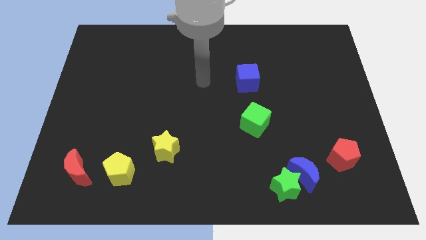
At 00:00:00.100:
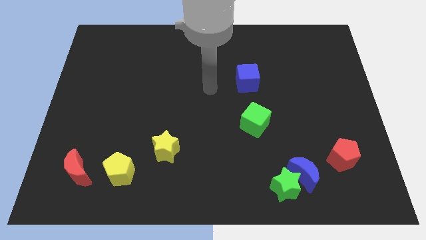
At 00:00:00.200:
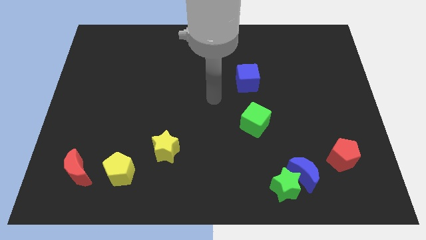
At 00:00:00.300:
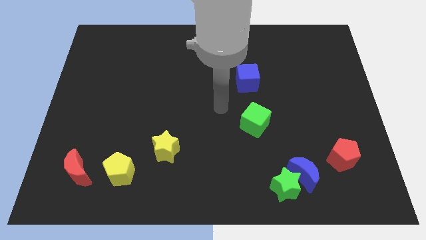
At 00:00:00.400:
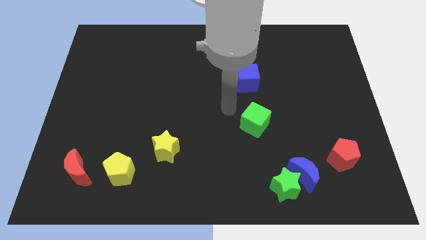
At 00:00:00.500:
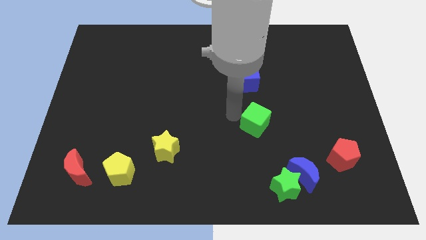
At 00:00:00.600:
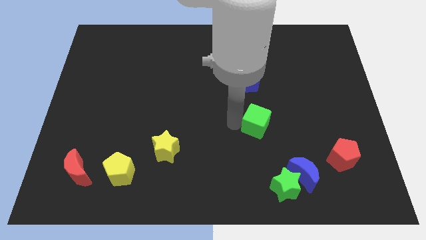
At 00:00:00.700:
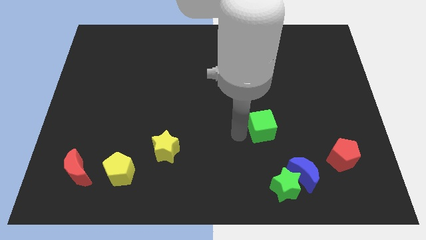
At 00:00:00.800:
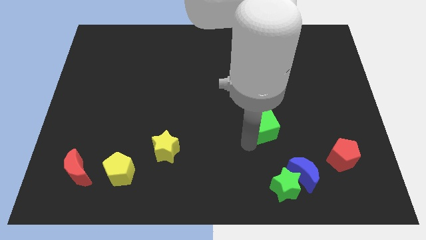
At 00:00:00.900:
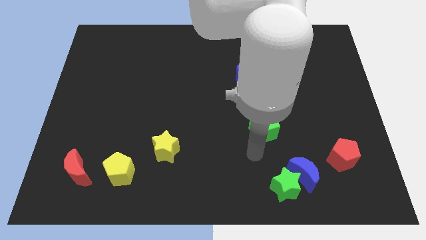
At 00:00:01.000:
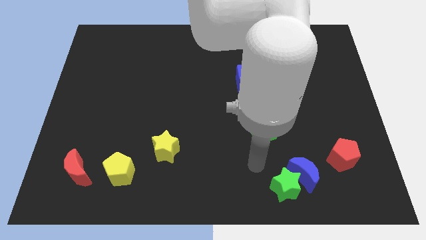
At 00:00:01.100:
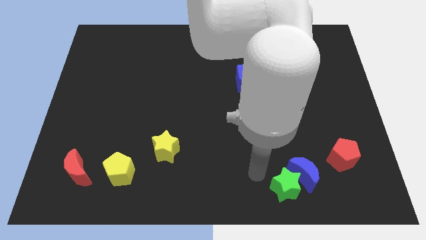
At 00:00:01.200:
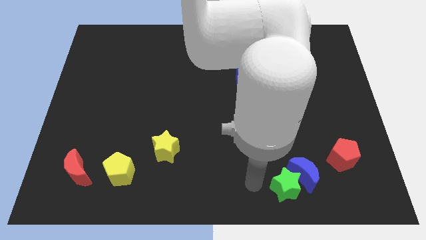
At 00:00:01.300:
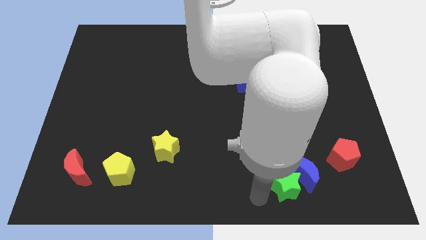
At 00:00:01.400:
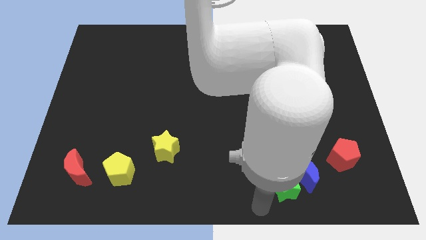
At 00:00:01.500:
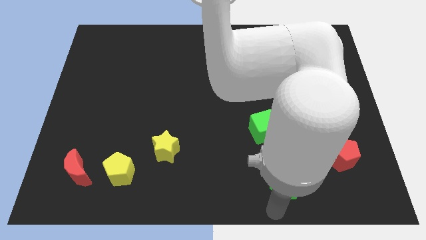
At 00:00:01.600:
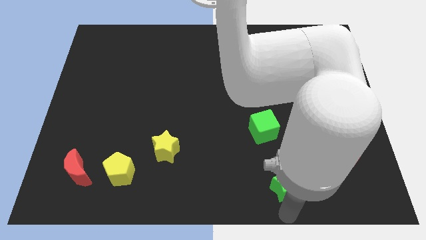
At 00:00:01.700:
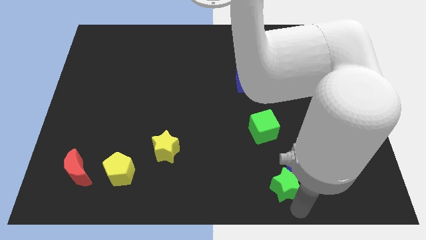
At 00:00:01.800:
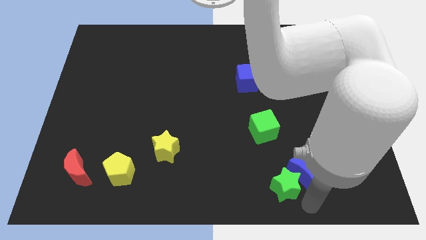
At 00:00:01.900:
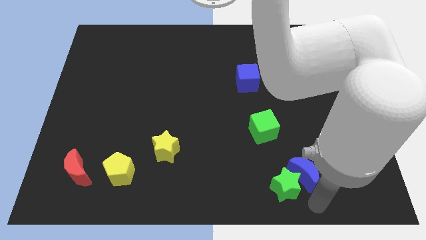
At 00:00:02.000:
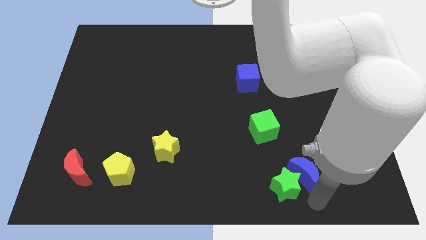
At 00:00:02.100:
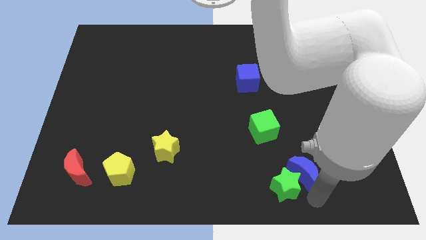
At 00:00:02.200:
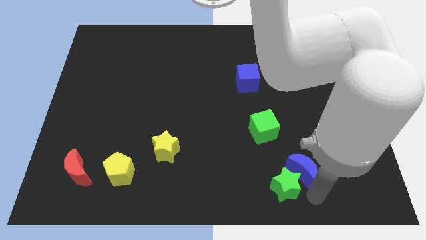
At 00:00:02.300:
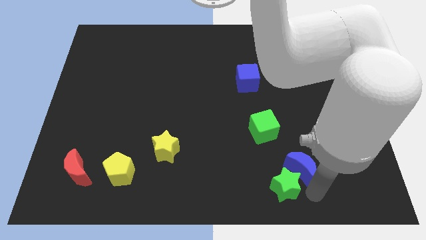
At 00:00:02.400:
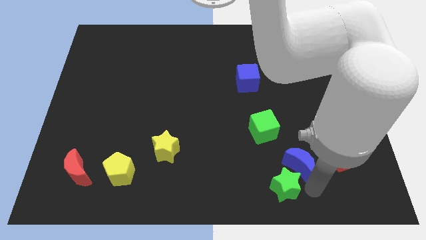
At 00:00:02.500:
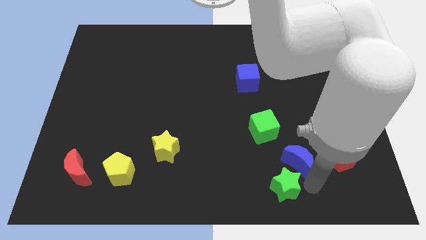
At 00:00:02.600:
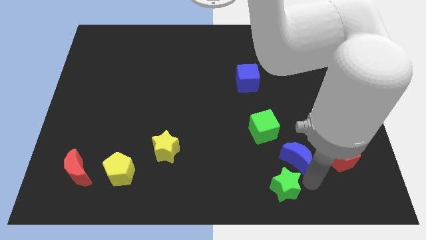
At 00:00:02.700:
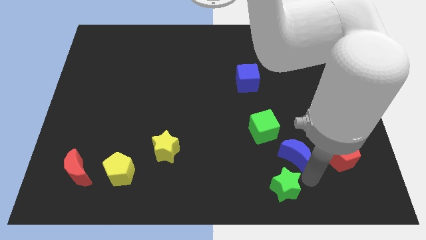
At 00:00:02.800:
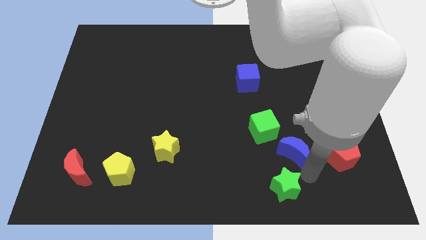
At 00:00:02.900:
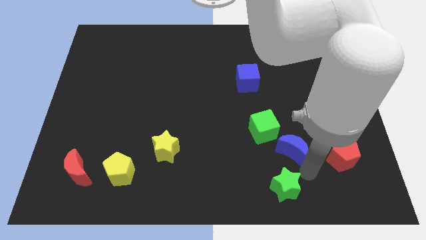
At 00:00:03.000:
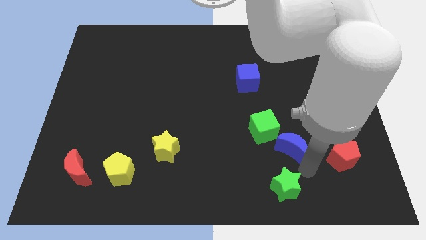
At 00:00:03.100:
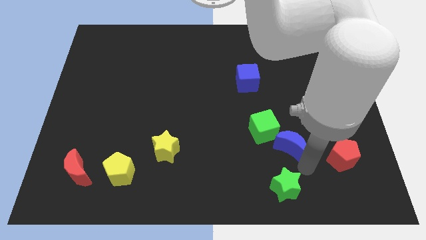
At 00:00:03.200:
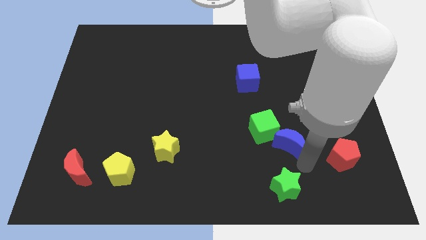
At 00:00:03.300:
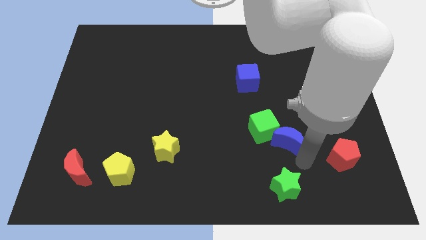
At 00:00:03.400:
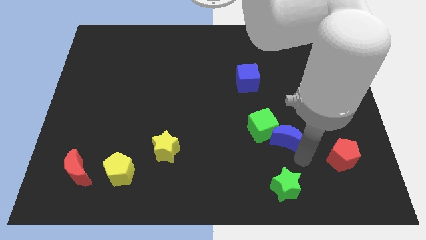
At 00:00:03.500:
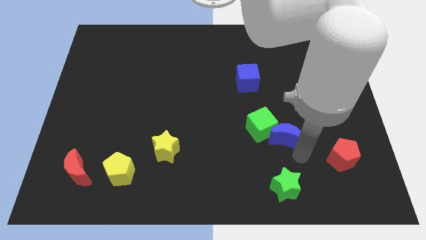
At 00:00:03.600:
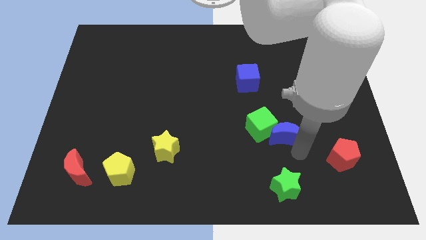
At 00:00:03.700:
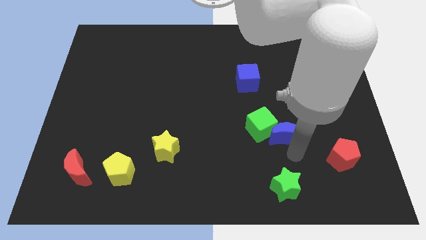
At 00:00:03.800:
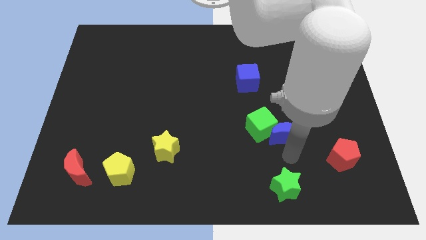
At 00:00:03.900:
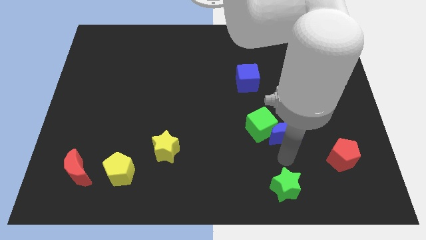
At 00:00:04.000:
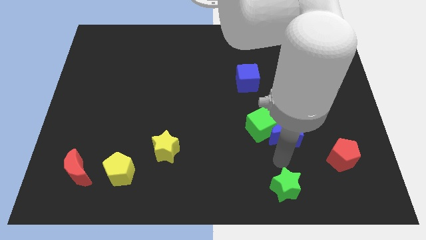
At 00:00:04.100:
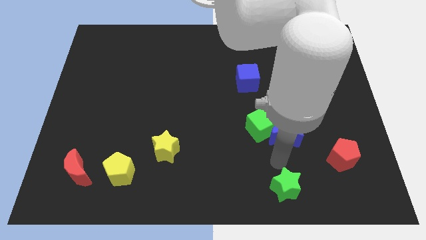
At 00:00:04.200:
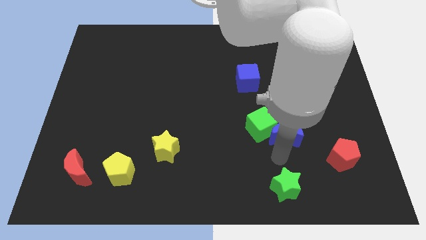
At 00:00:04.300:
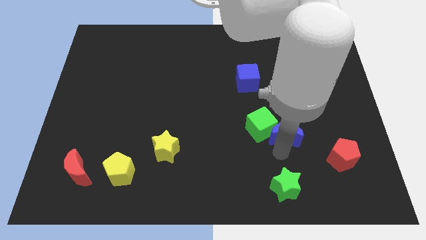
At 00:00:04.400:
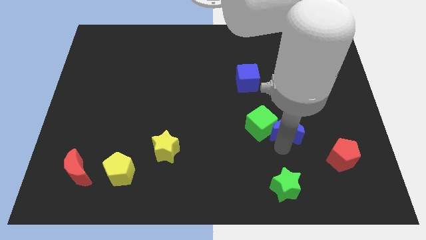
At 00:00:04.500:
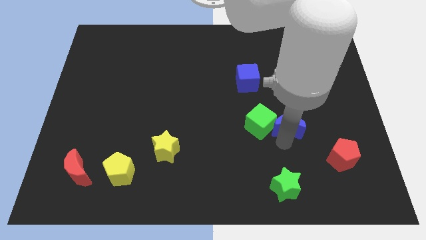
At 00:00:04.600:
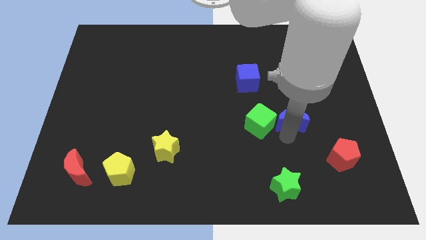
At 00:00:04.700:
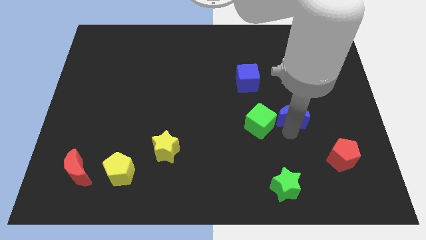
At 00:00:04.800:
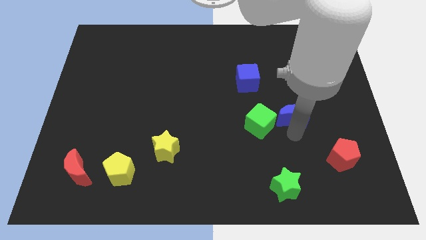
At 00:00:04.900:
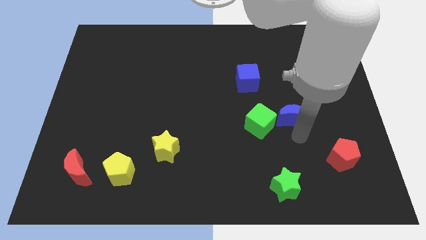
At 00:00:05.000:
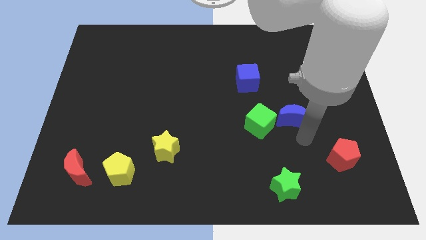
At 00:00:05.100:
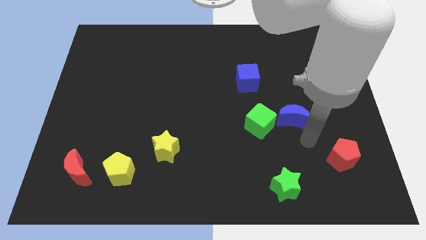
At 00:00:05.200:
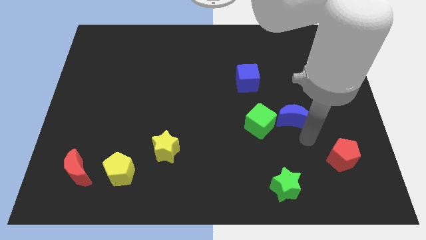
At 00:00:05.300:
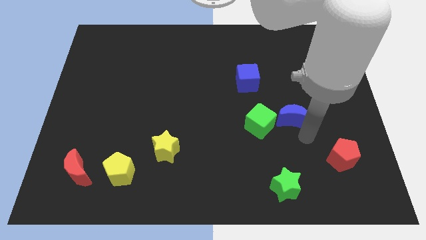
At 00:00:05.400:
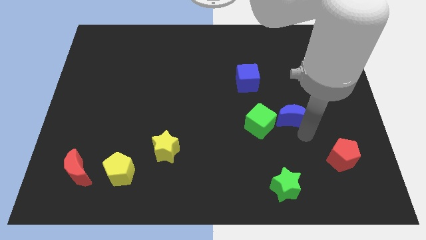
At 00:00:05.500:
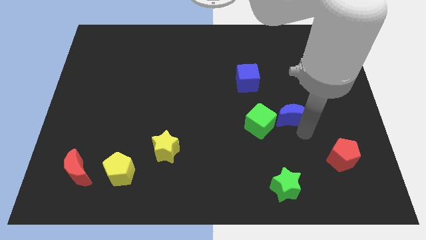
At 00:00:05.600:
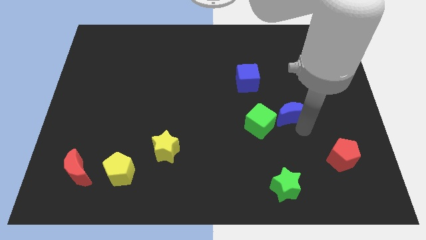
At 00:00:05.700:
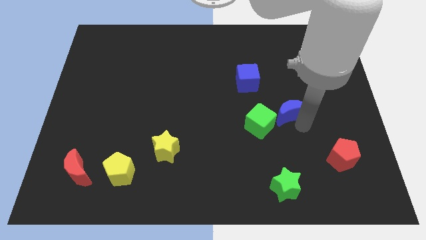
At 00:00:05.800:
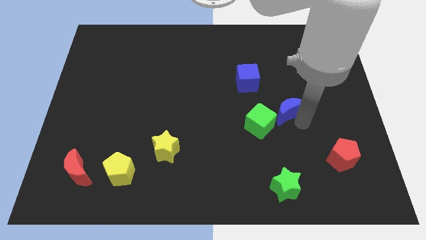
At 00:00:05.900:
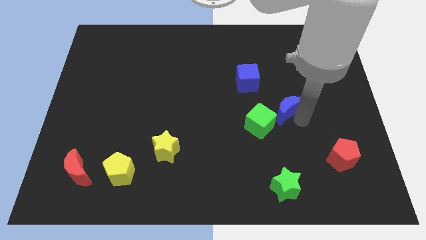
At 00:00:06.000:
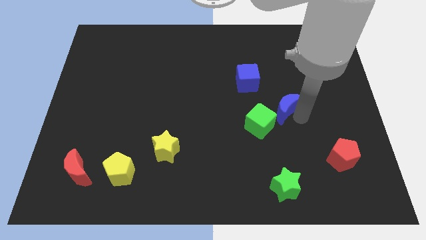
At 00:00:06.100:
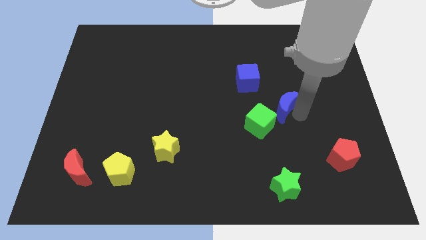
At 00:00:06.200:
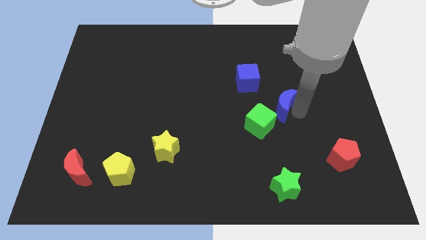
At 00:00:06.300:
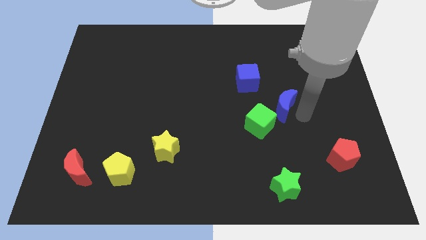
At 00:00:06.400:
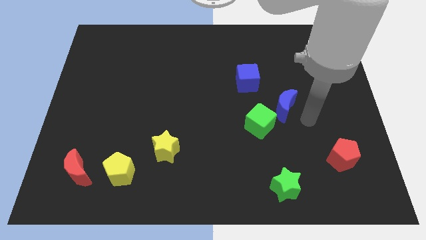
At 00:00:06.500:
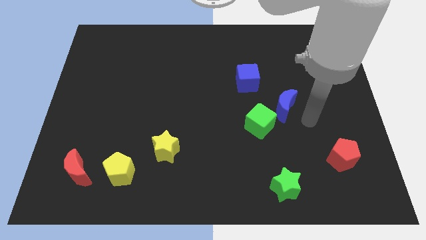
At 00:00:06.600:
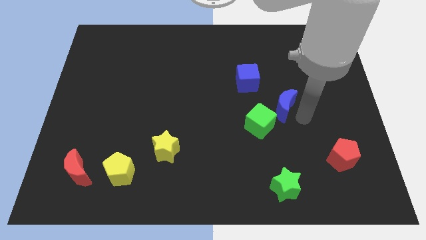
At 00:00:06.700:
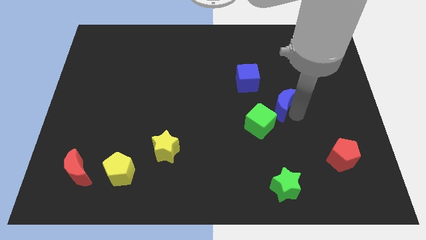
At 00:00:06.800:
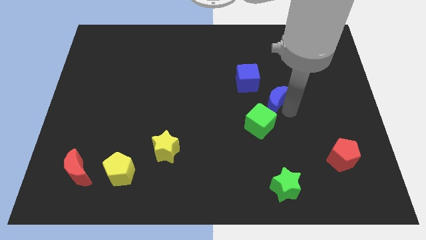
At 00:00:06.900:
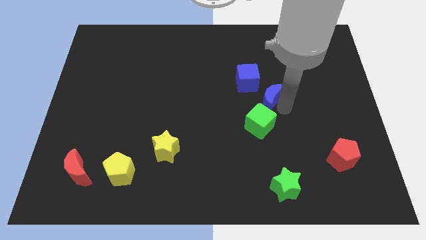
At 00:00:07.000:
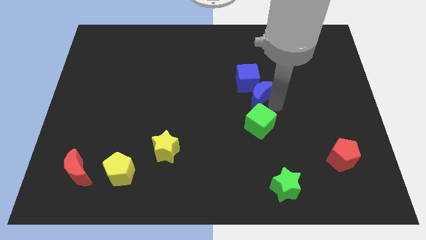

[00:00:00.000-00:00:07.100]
move the blue moon close to the blue cube

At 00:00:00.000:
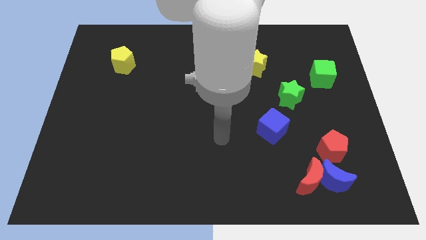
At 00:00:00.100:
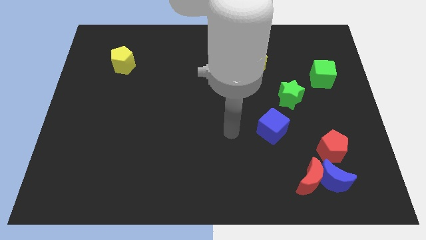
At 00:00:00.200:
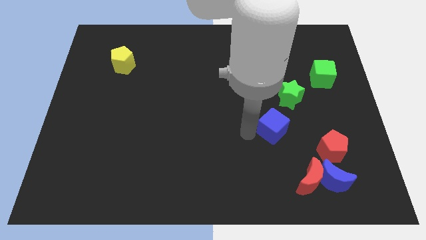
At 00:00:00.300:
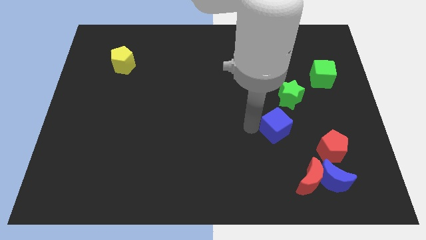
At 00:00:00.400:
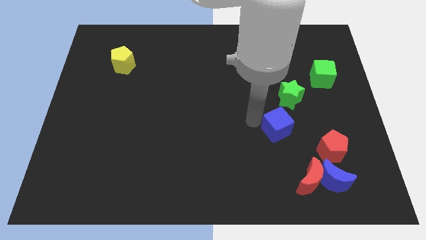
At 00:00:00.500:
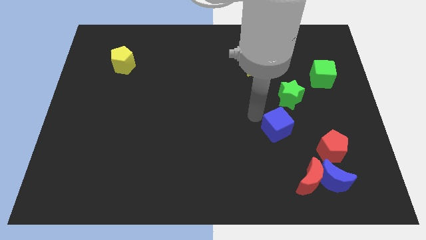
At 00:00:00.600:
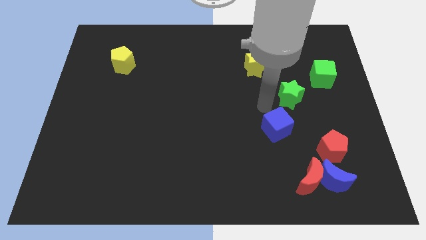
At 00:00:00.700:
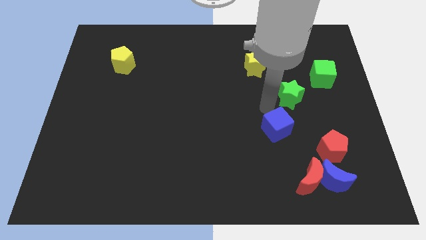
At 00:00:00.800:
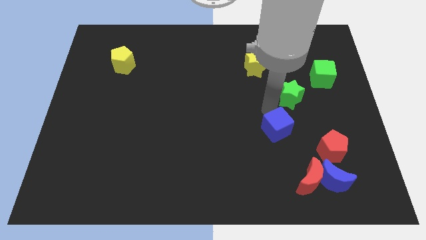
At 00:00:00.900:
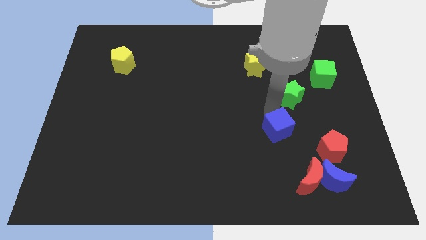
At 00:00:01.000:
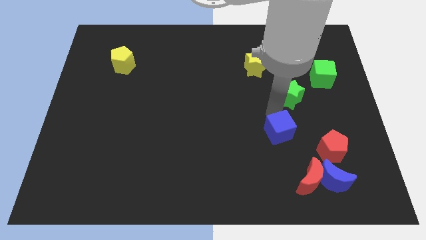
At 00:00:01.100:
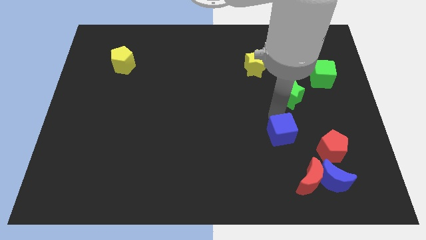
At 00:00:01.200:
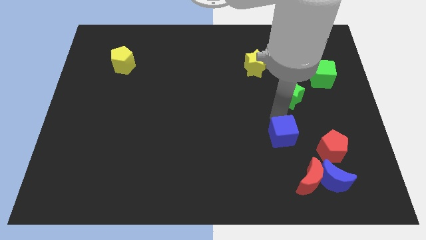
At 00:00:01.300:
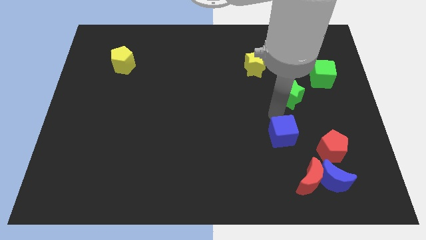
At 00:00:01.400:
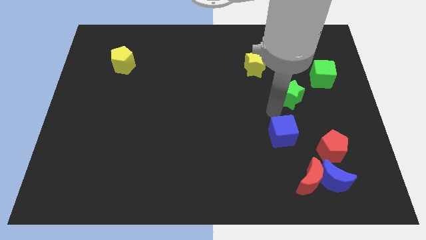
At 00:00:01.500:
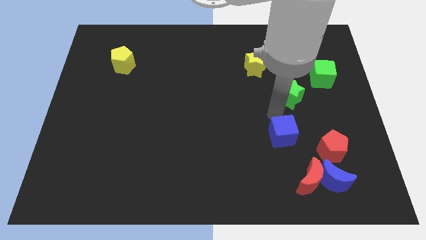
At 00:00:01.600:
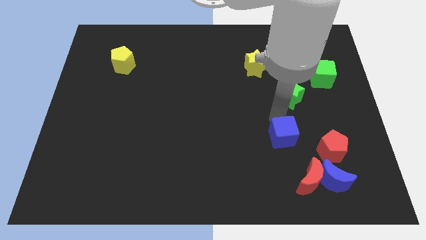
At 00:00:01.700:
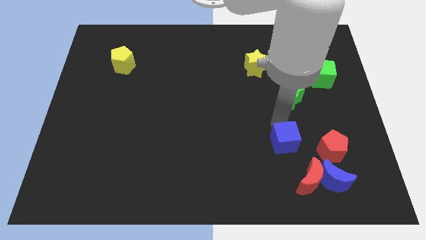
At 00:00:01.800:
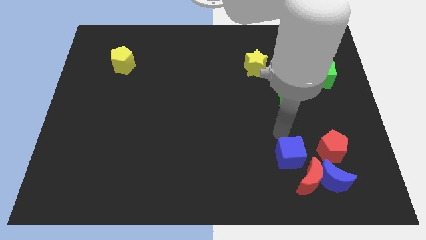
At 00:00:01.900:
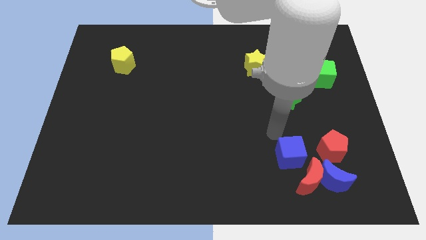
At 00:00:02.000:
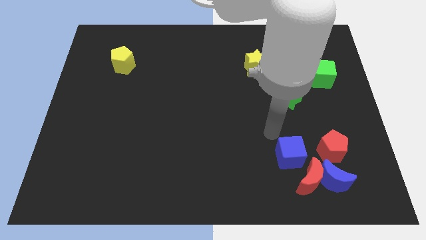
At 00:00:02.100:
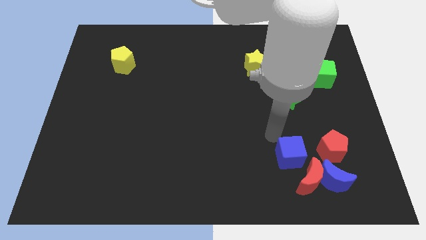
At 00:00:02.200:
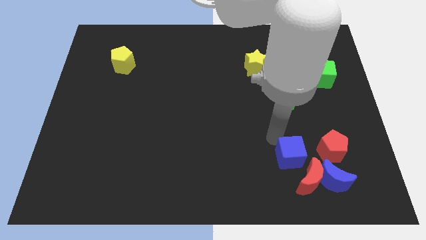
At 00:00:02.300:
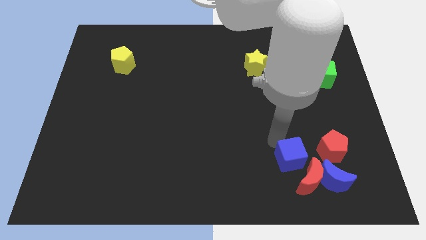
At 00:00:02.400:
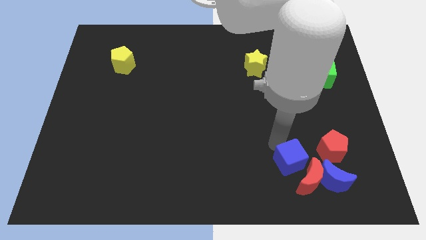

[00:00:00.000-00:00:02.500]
slide the blue cube to the red moon
